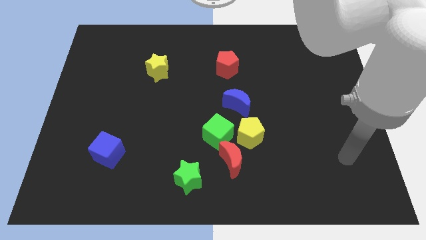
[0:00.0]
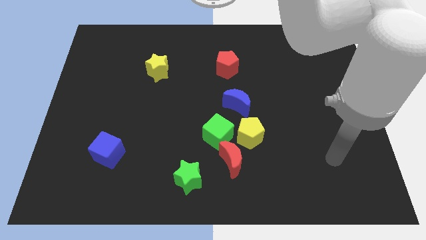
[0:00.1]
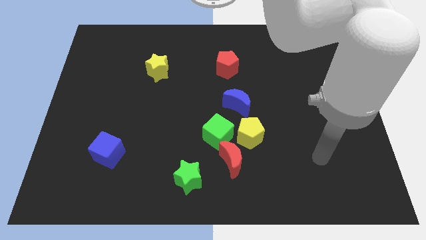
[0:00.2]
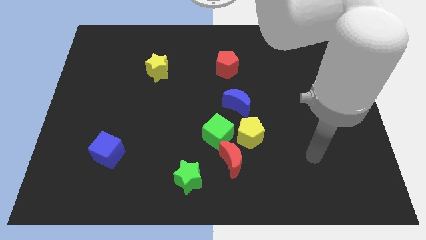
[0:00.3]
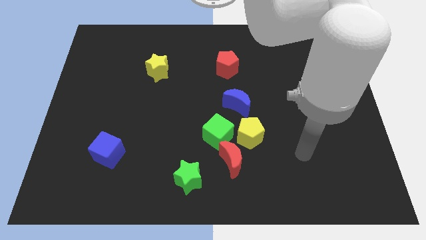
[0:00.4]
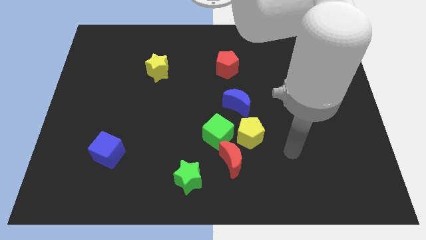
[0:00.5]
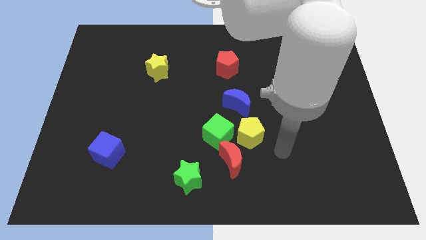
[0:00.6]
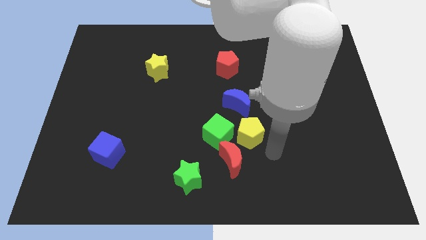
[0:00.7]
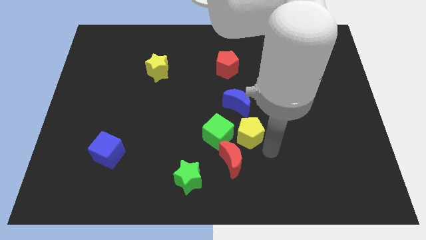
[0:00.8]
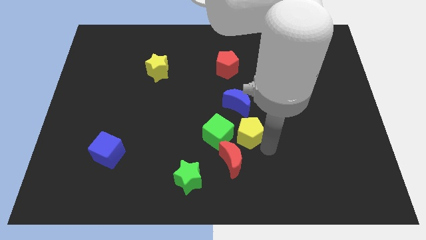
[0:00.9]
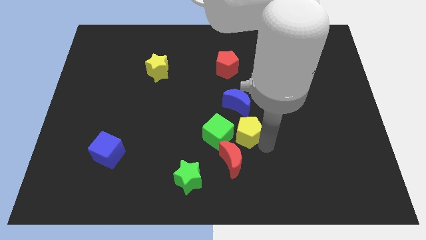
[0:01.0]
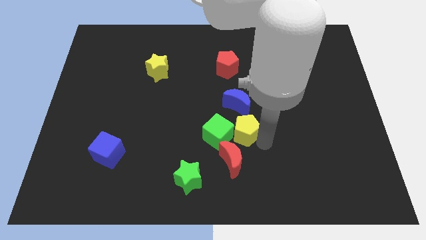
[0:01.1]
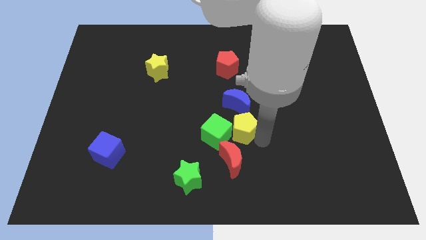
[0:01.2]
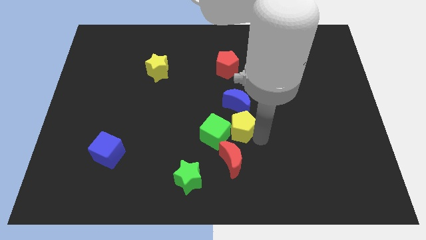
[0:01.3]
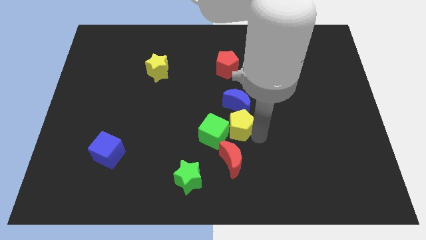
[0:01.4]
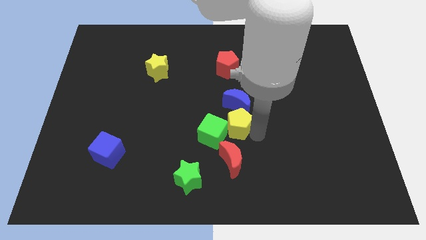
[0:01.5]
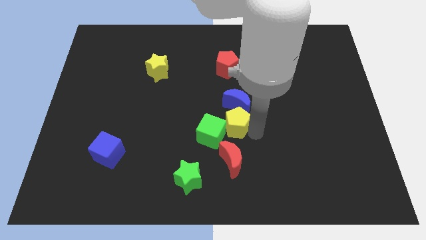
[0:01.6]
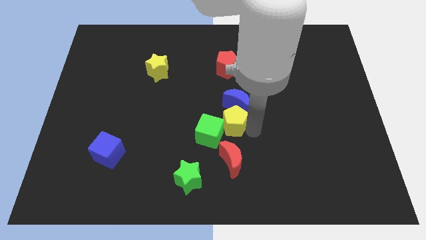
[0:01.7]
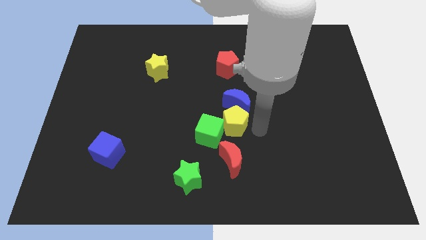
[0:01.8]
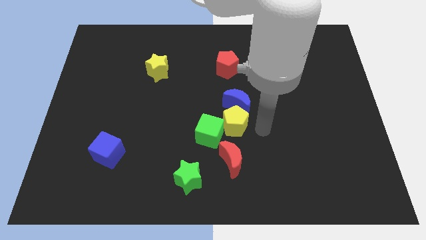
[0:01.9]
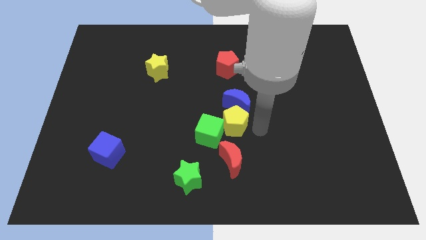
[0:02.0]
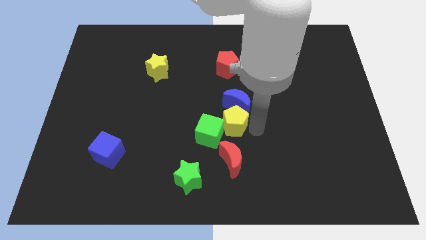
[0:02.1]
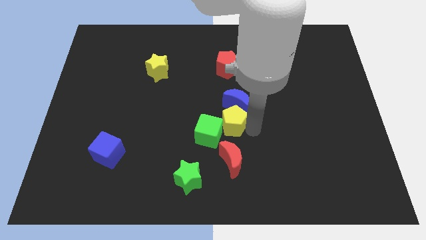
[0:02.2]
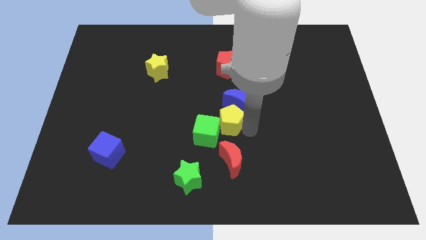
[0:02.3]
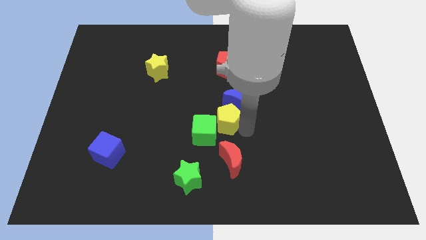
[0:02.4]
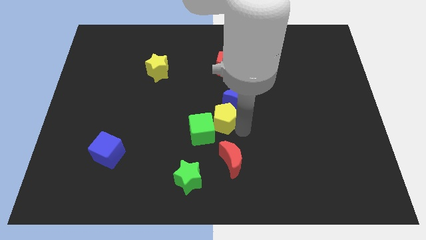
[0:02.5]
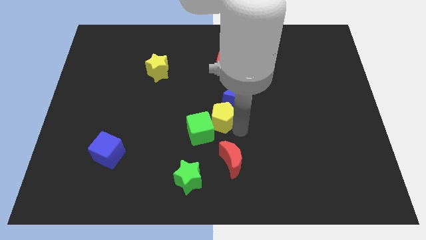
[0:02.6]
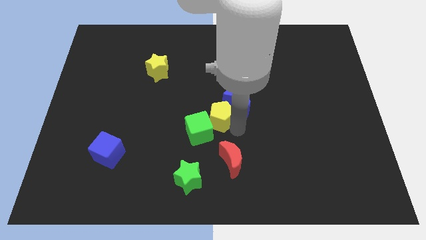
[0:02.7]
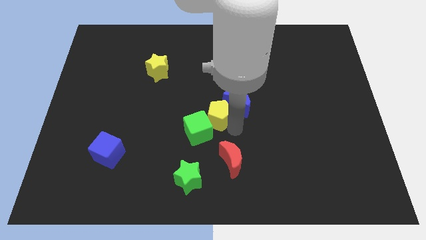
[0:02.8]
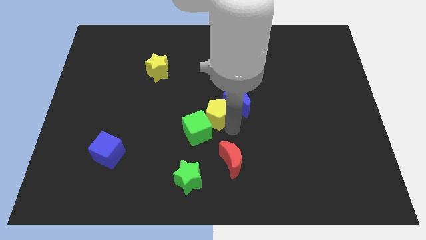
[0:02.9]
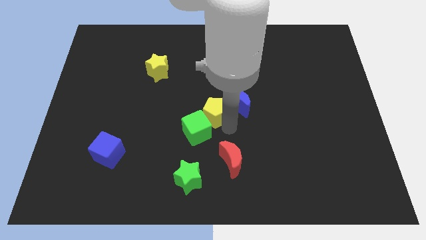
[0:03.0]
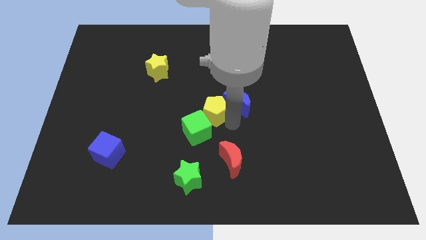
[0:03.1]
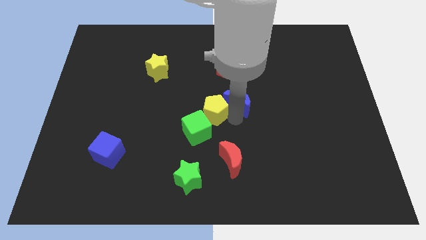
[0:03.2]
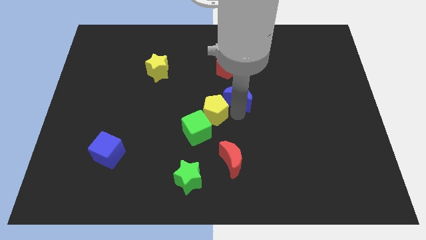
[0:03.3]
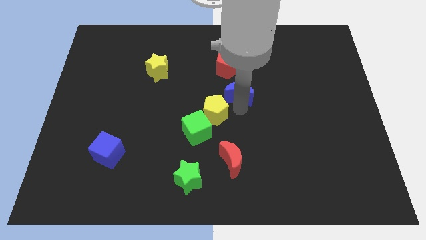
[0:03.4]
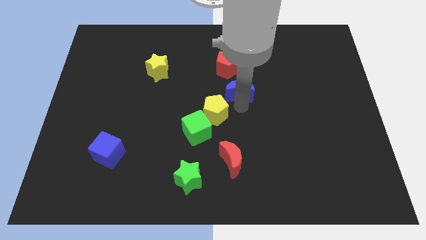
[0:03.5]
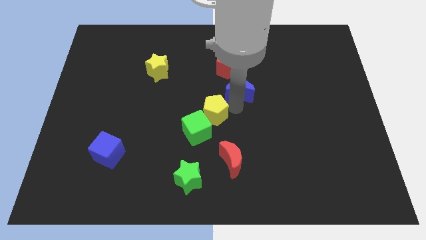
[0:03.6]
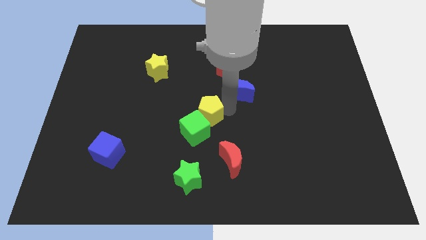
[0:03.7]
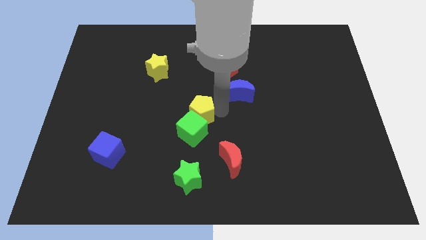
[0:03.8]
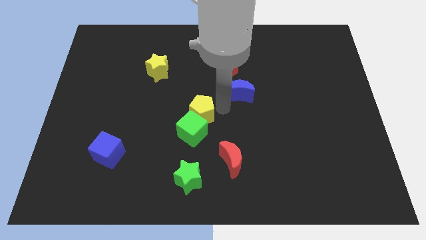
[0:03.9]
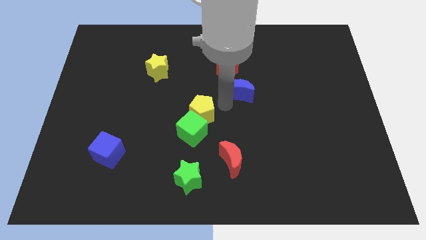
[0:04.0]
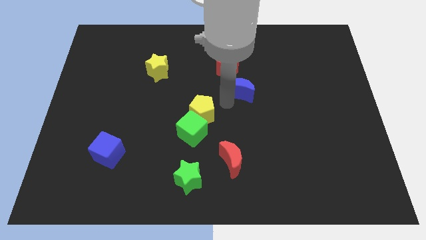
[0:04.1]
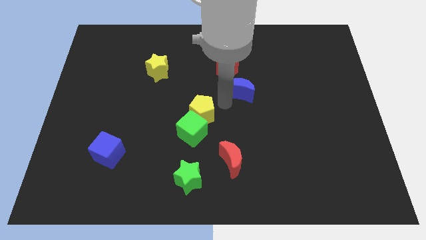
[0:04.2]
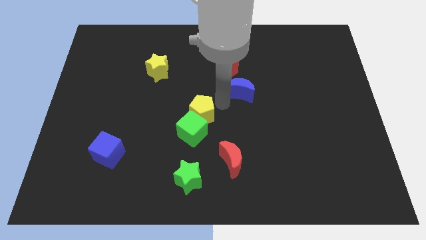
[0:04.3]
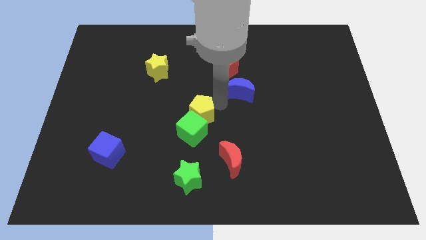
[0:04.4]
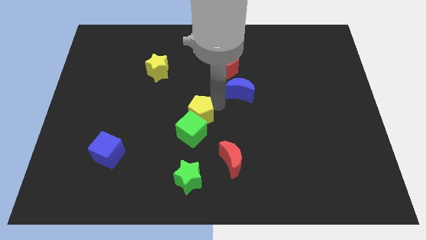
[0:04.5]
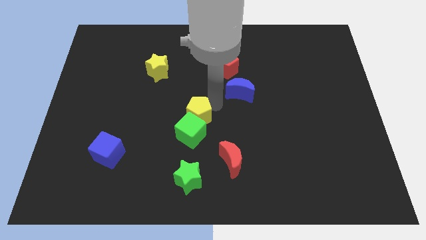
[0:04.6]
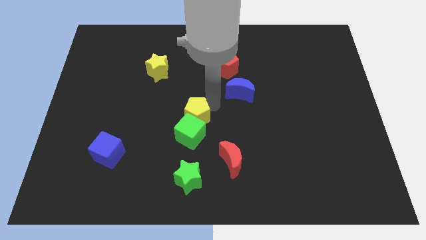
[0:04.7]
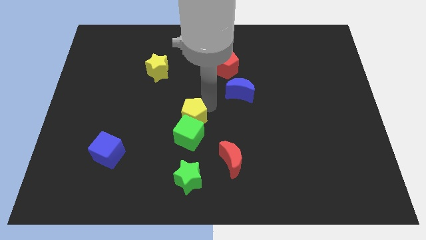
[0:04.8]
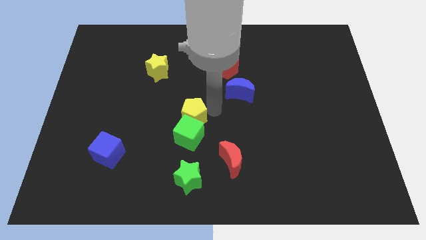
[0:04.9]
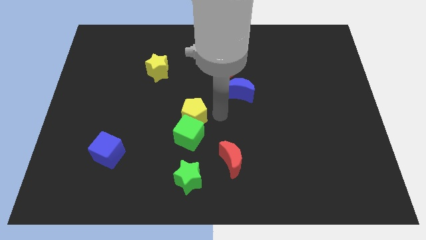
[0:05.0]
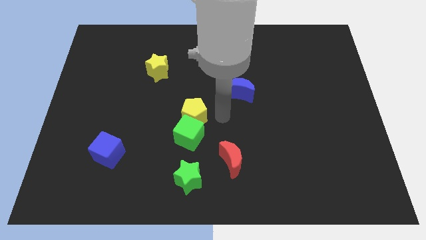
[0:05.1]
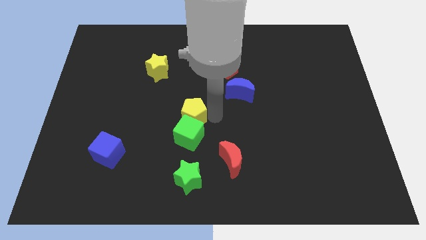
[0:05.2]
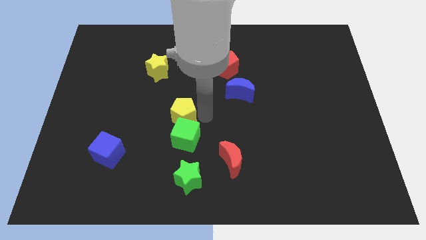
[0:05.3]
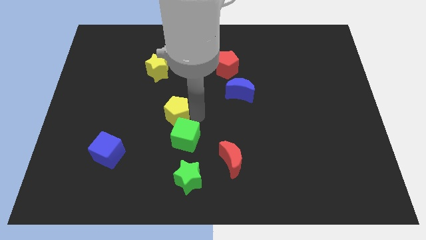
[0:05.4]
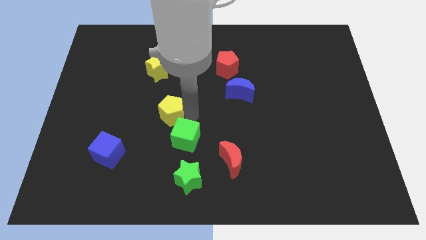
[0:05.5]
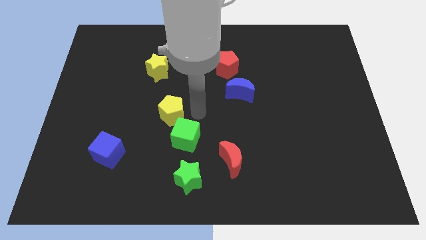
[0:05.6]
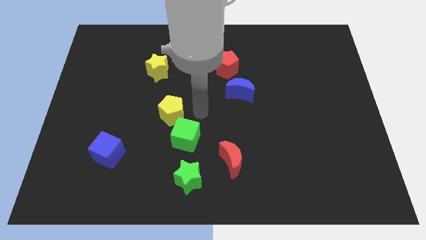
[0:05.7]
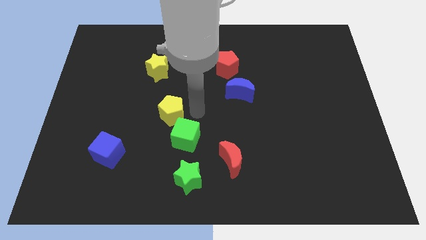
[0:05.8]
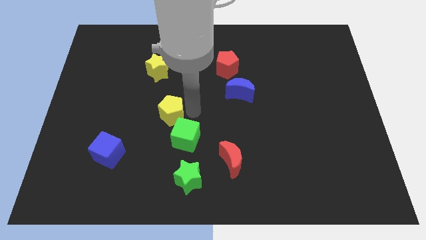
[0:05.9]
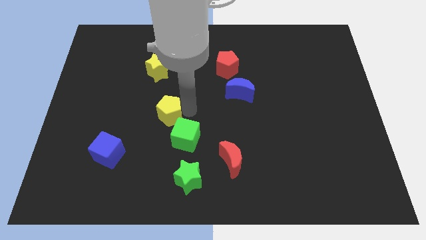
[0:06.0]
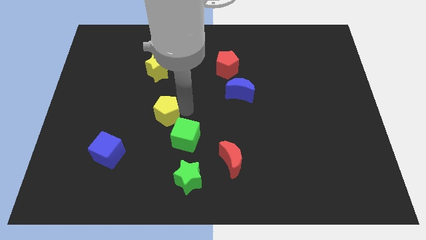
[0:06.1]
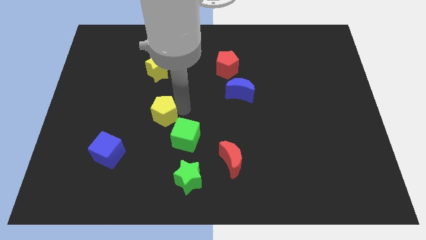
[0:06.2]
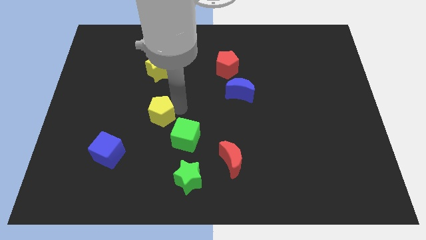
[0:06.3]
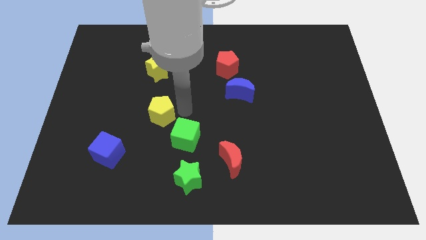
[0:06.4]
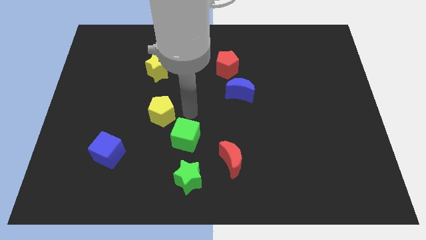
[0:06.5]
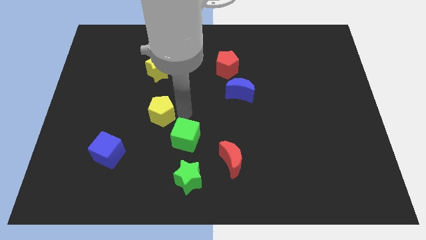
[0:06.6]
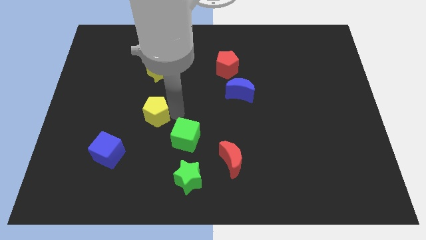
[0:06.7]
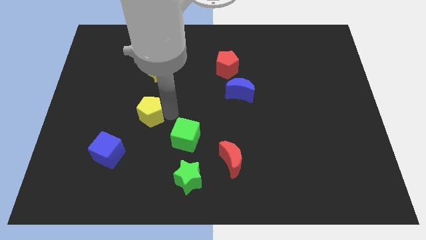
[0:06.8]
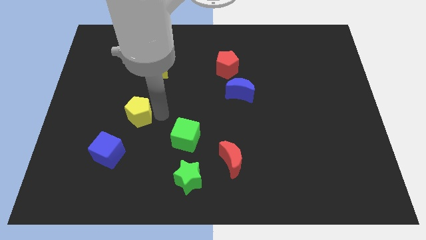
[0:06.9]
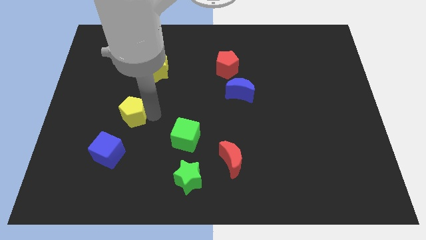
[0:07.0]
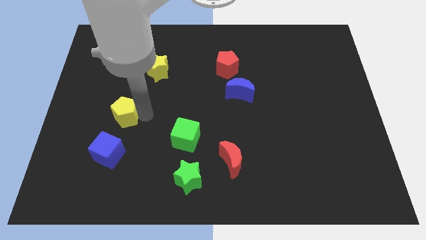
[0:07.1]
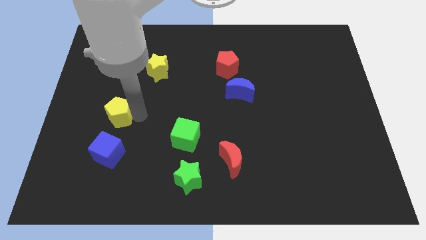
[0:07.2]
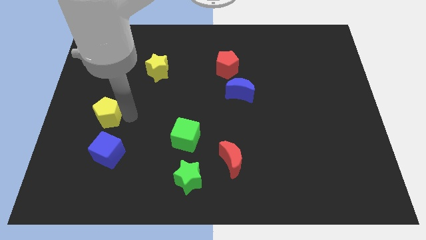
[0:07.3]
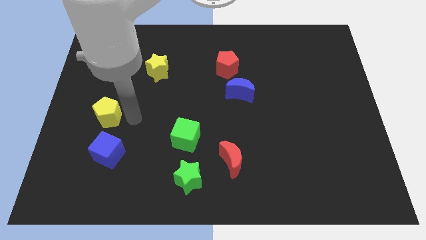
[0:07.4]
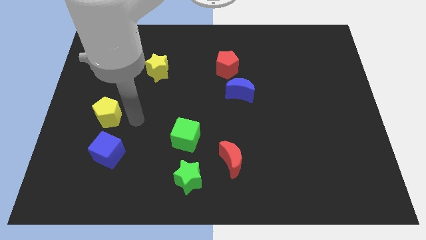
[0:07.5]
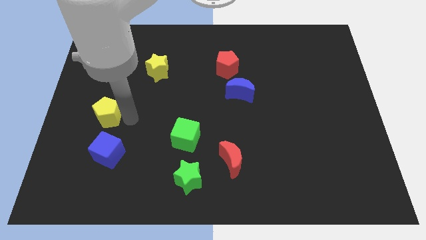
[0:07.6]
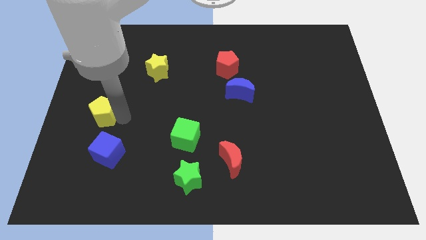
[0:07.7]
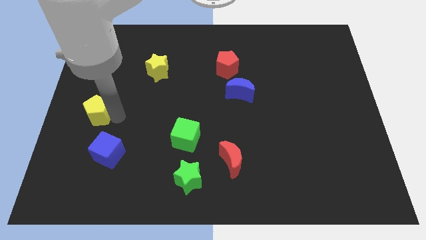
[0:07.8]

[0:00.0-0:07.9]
put the yellow pentagon to the left side
